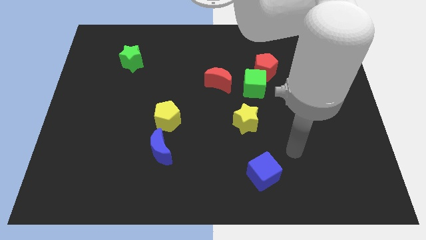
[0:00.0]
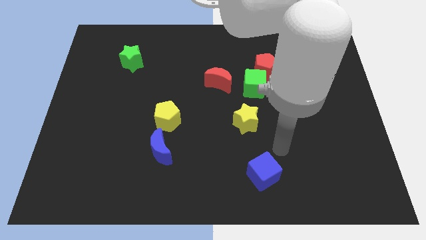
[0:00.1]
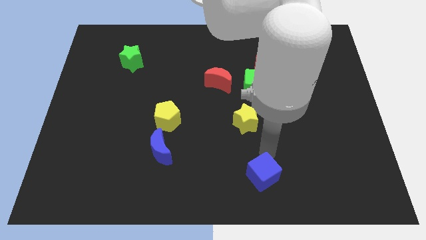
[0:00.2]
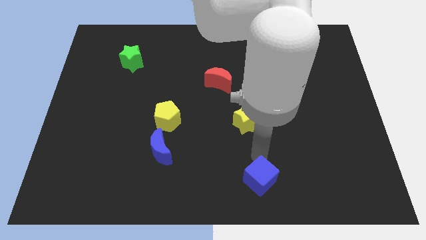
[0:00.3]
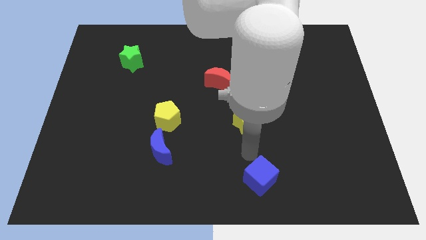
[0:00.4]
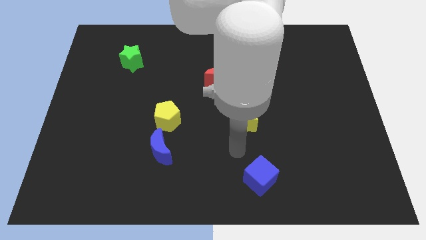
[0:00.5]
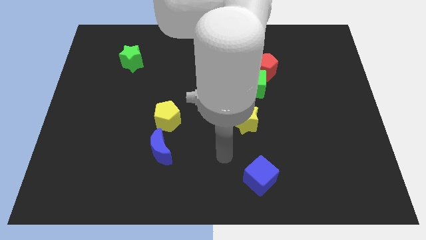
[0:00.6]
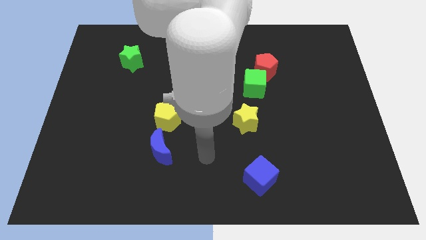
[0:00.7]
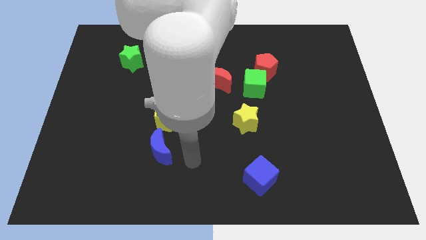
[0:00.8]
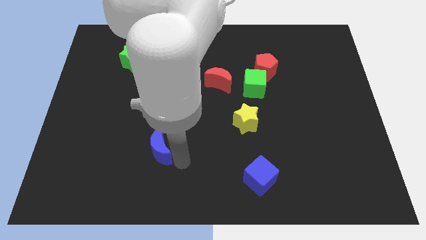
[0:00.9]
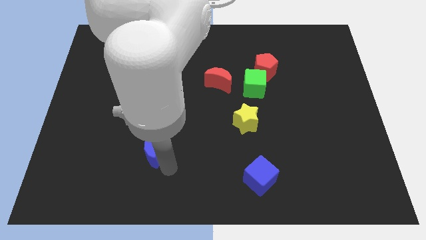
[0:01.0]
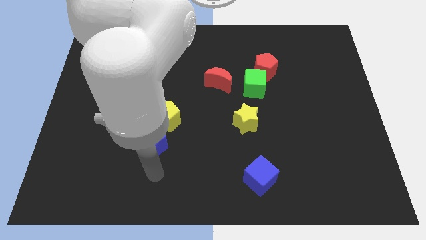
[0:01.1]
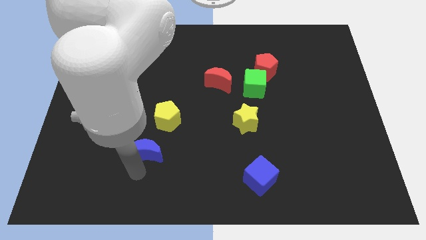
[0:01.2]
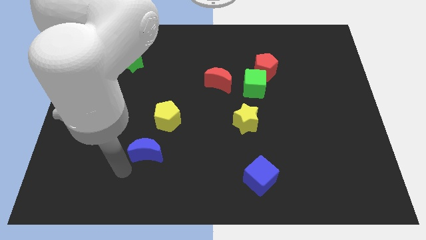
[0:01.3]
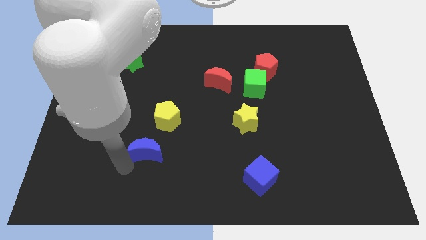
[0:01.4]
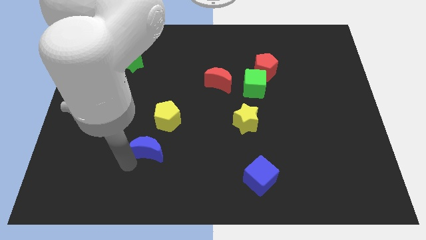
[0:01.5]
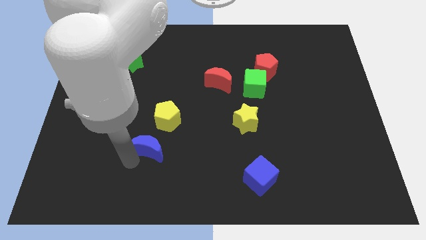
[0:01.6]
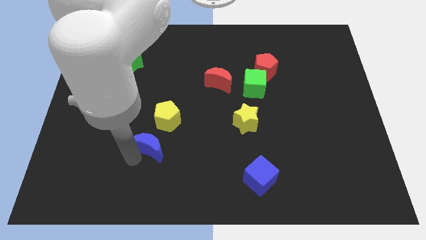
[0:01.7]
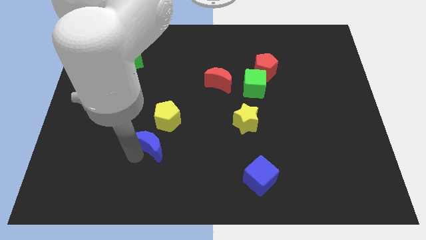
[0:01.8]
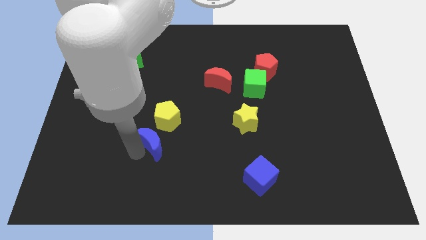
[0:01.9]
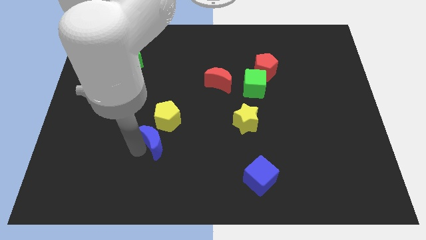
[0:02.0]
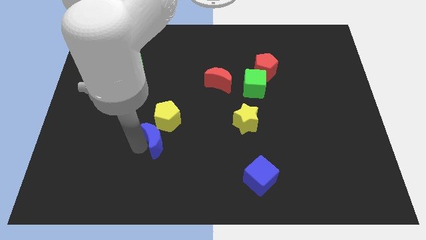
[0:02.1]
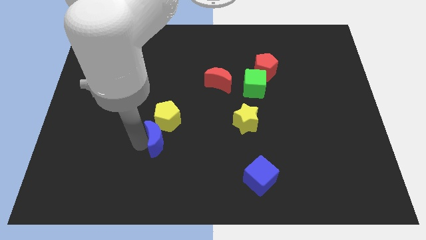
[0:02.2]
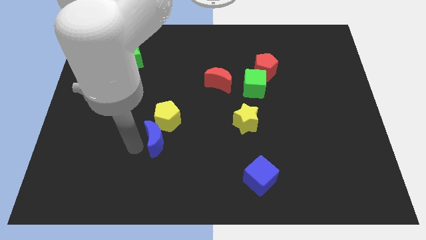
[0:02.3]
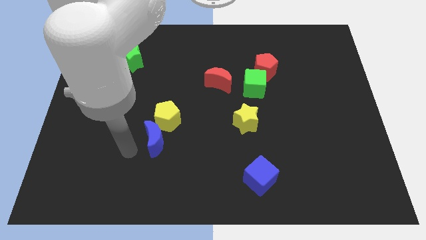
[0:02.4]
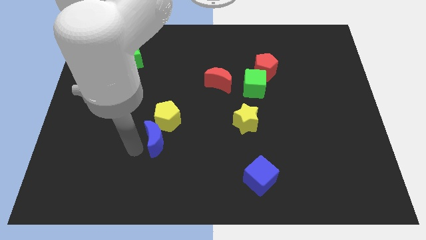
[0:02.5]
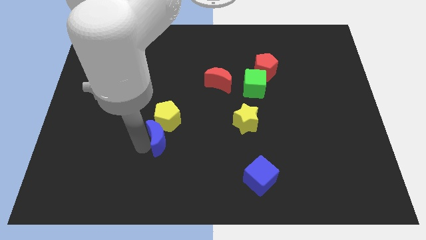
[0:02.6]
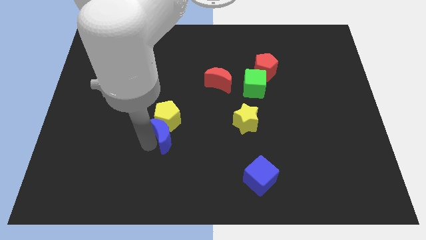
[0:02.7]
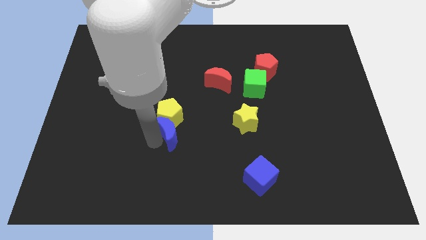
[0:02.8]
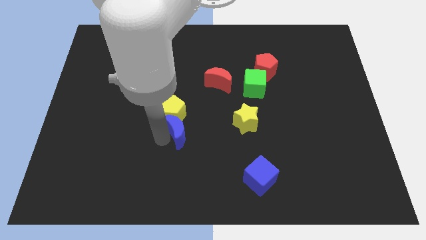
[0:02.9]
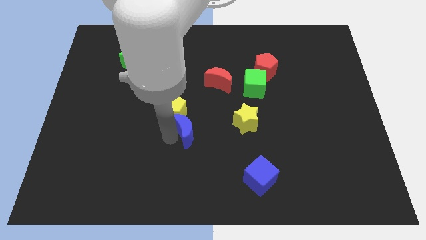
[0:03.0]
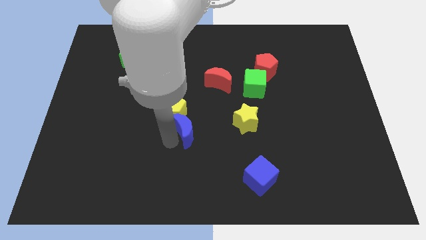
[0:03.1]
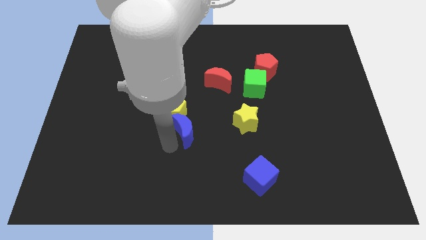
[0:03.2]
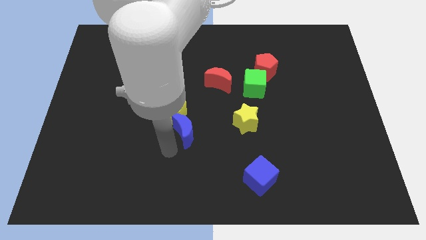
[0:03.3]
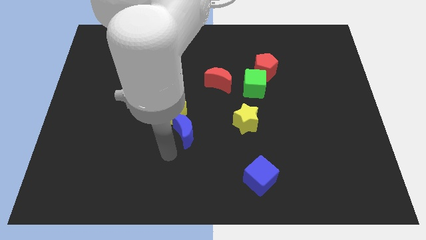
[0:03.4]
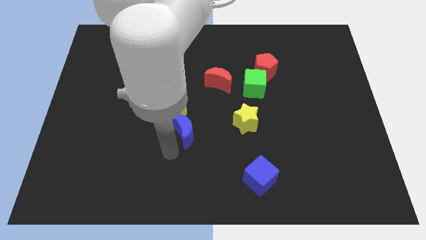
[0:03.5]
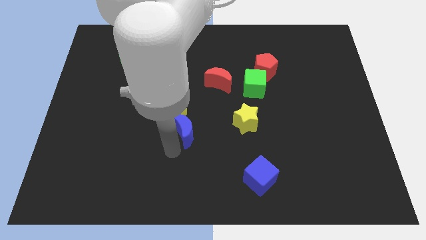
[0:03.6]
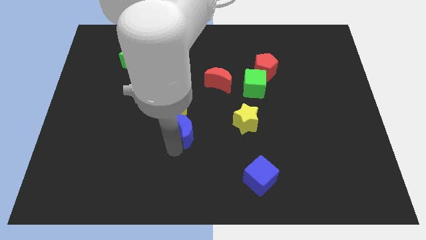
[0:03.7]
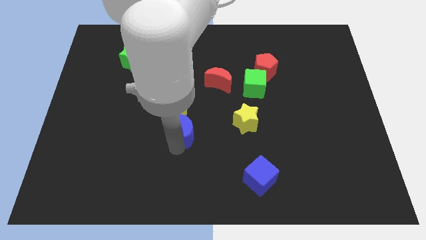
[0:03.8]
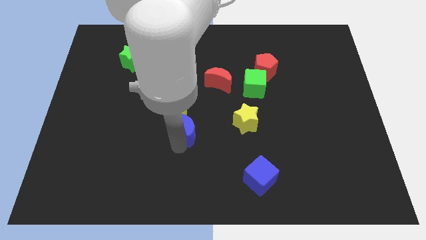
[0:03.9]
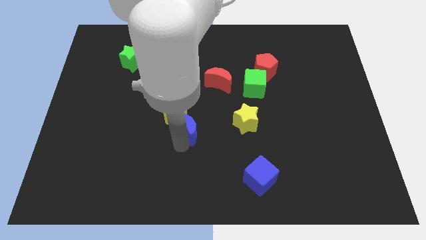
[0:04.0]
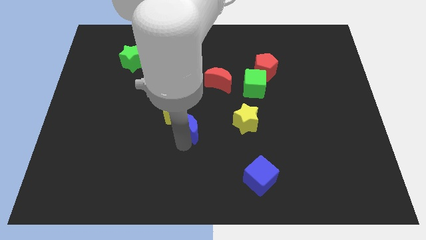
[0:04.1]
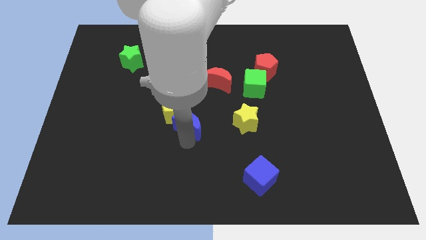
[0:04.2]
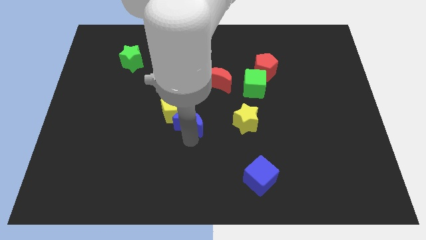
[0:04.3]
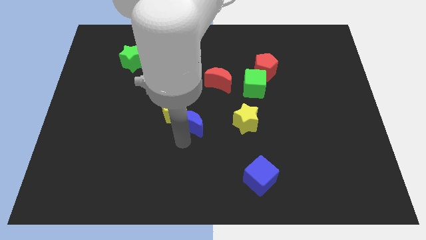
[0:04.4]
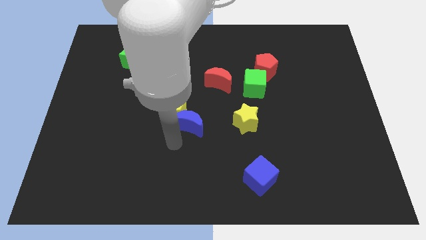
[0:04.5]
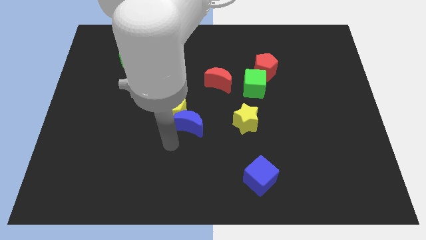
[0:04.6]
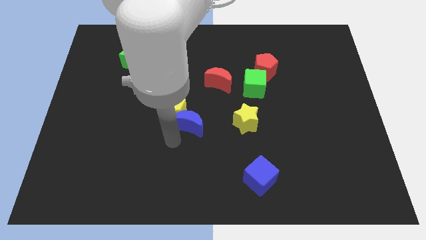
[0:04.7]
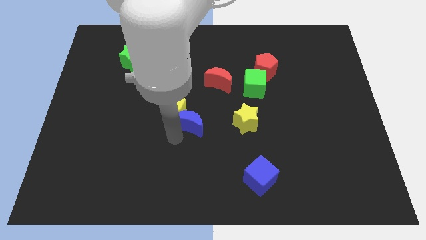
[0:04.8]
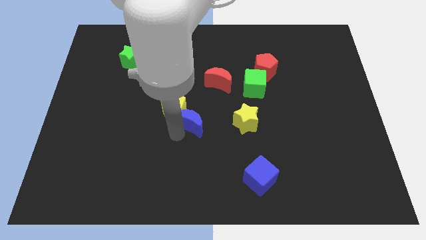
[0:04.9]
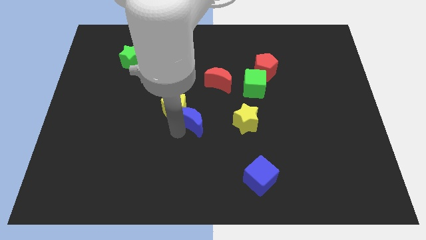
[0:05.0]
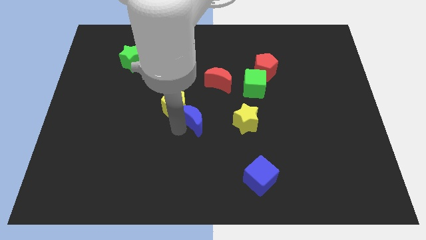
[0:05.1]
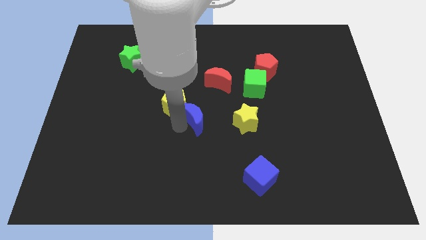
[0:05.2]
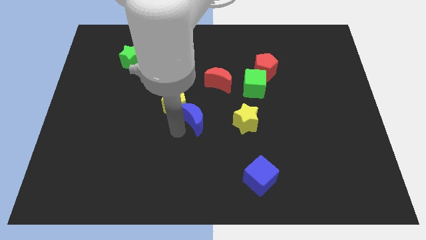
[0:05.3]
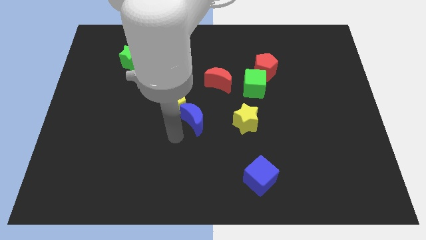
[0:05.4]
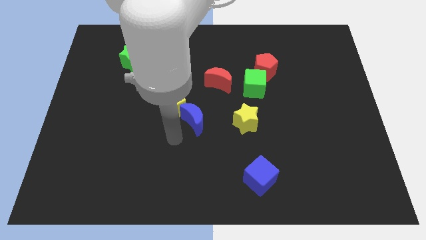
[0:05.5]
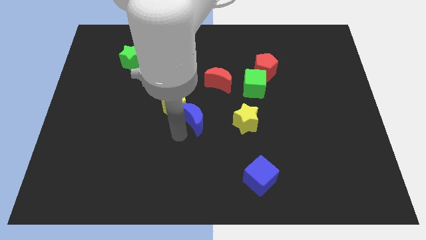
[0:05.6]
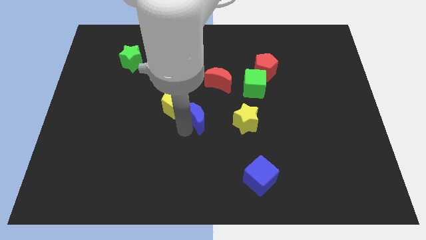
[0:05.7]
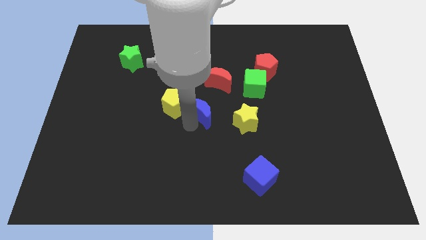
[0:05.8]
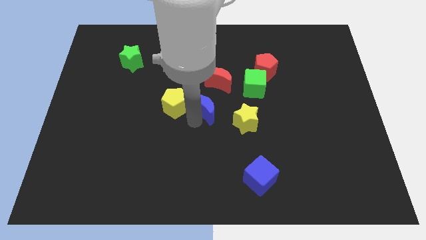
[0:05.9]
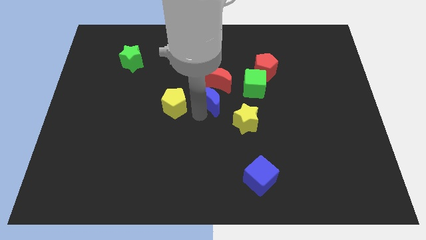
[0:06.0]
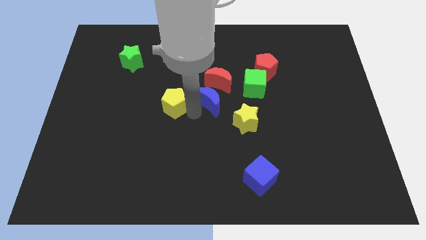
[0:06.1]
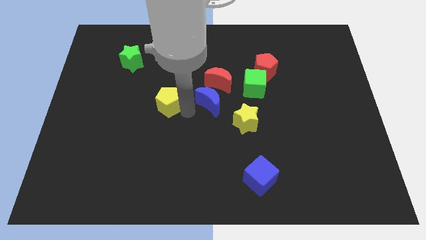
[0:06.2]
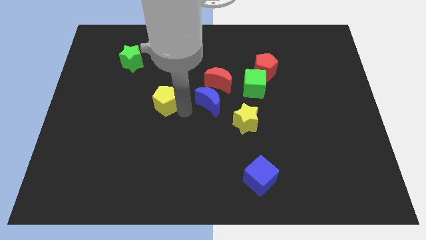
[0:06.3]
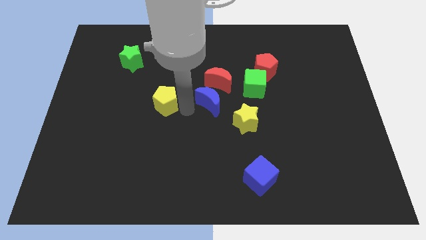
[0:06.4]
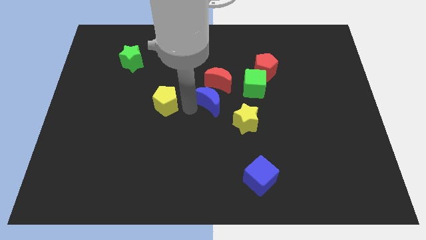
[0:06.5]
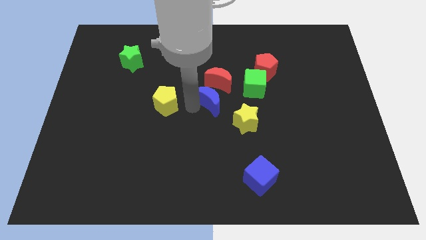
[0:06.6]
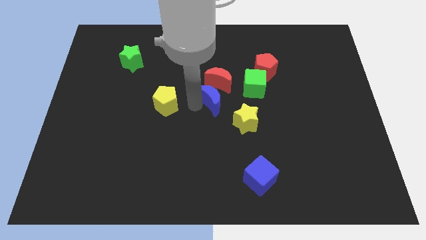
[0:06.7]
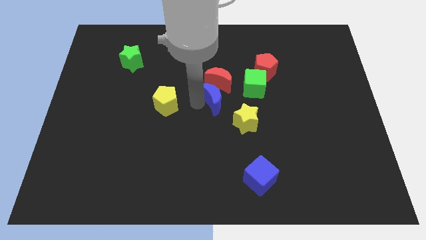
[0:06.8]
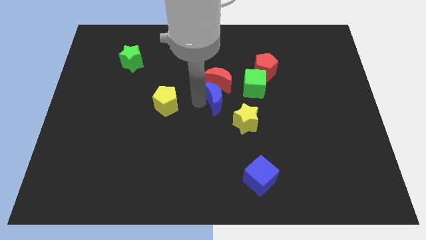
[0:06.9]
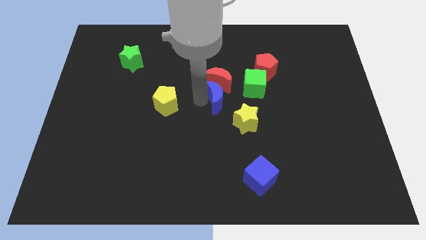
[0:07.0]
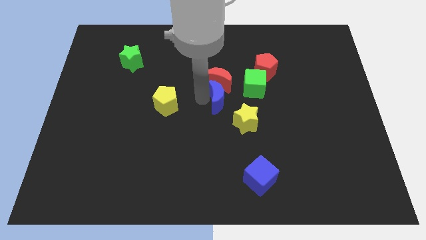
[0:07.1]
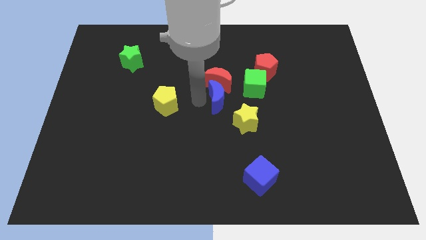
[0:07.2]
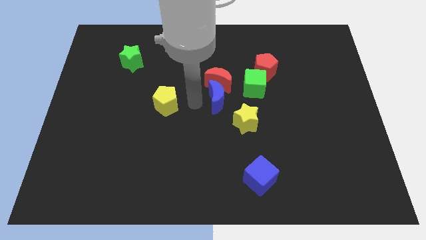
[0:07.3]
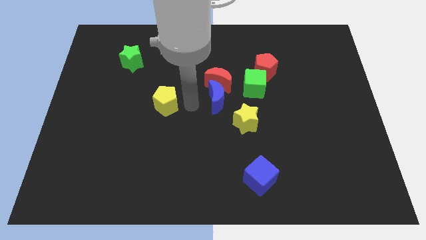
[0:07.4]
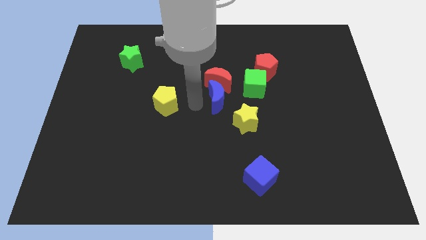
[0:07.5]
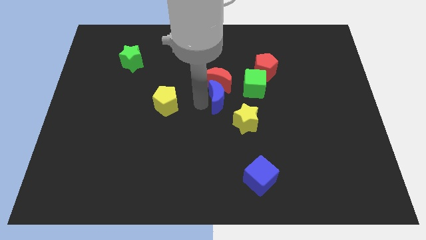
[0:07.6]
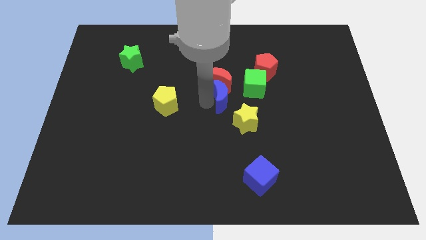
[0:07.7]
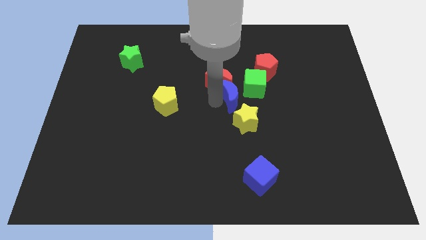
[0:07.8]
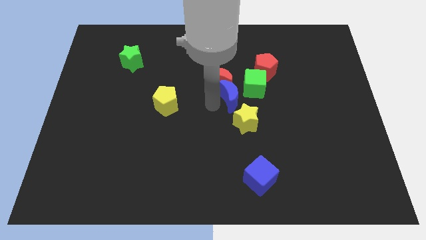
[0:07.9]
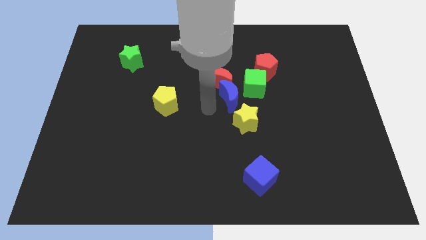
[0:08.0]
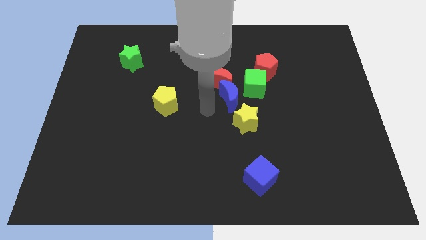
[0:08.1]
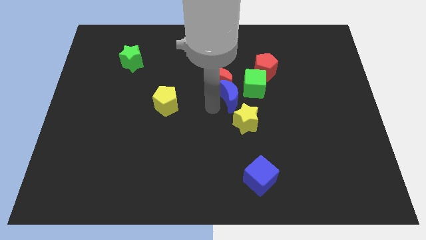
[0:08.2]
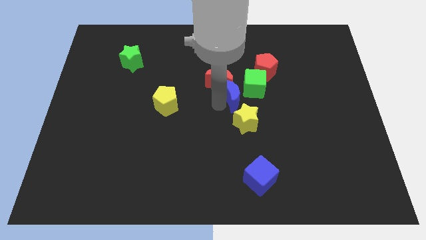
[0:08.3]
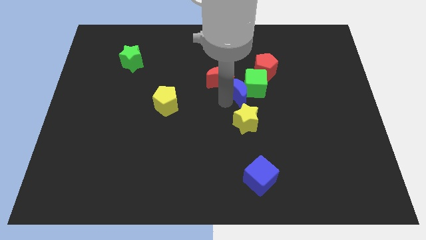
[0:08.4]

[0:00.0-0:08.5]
push the blue moon close to the green cube
